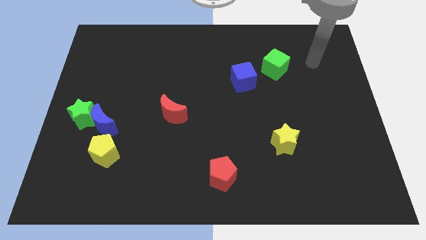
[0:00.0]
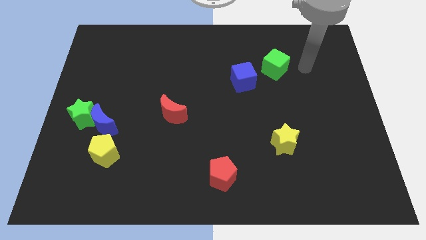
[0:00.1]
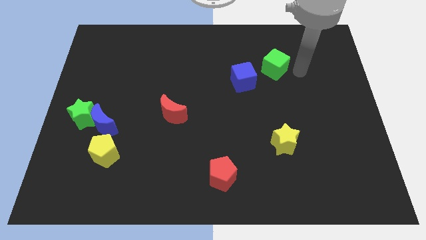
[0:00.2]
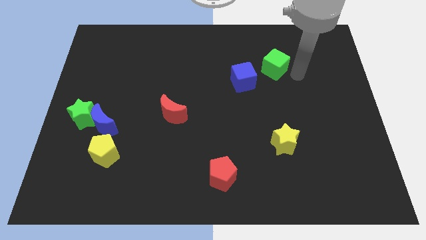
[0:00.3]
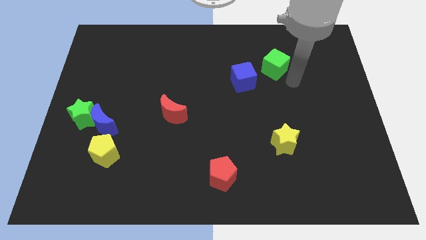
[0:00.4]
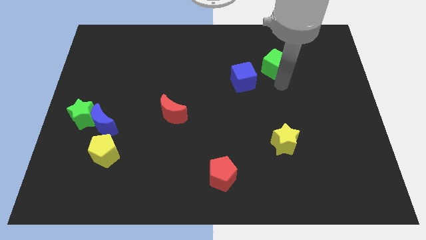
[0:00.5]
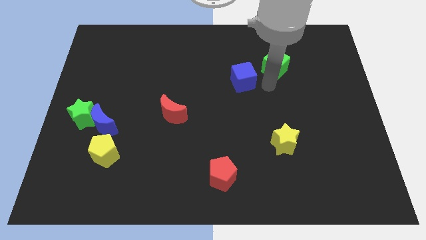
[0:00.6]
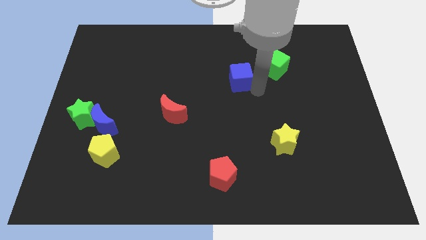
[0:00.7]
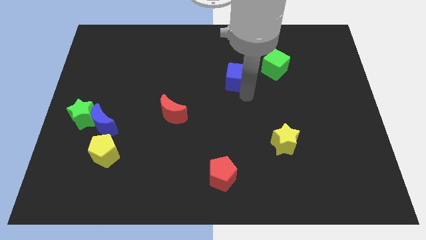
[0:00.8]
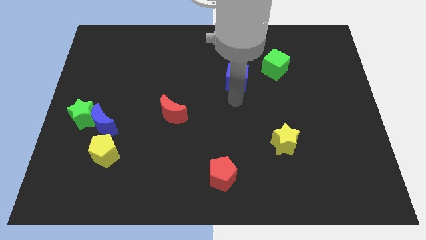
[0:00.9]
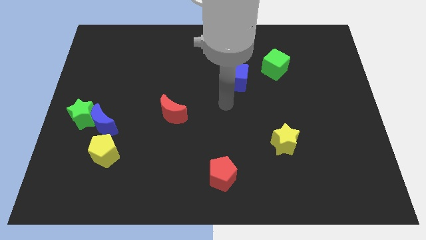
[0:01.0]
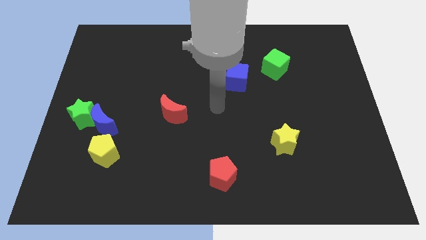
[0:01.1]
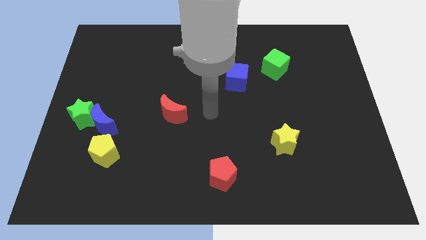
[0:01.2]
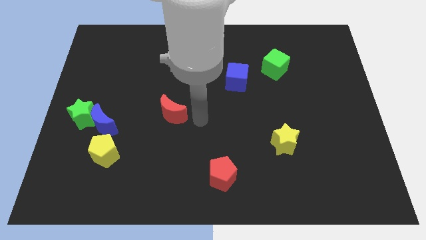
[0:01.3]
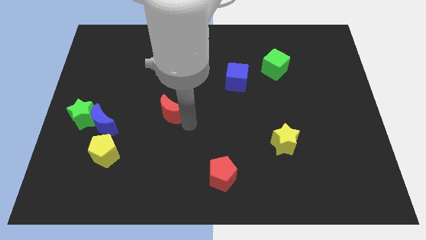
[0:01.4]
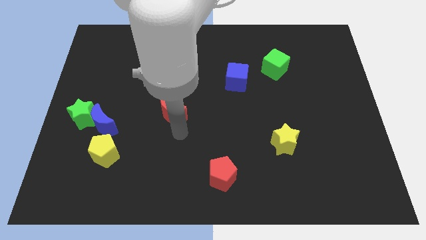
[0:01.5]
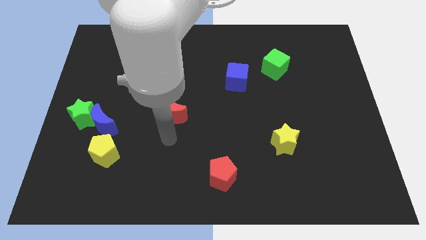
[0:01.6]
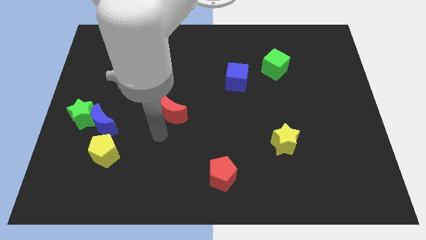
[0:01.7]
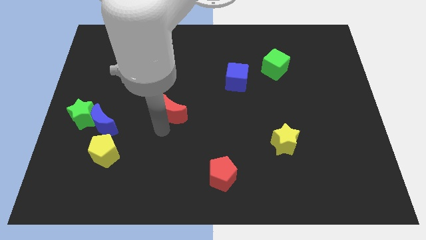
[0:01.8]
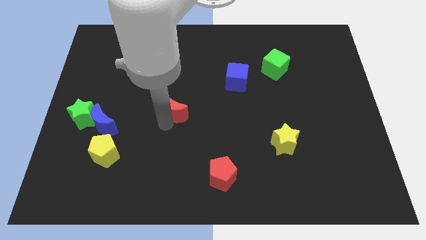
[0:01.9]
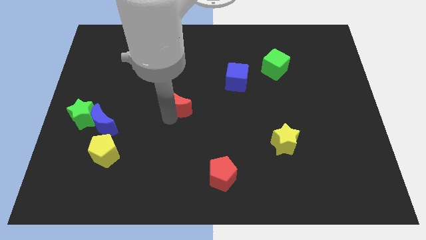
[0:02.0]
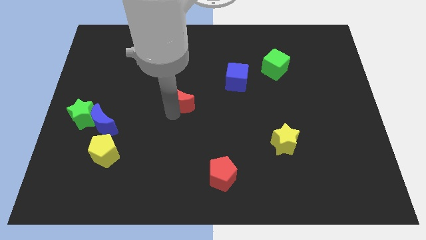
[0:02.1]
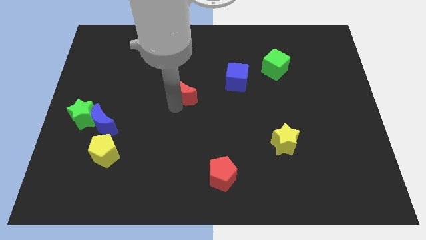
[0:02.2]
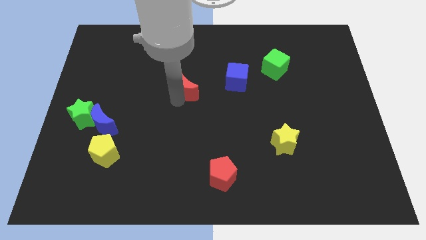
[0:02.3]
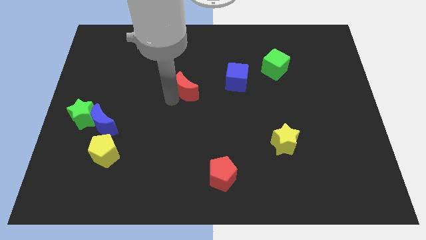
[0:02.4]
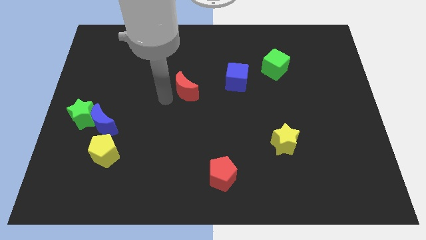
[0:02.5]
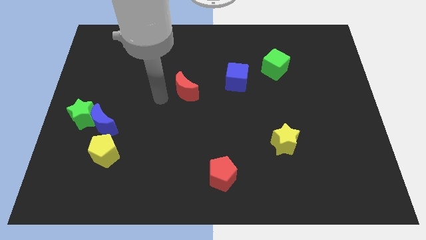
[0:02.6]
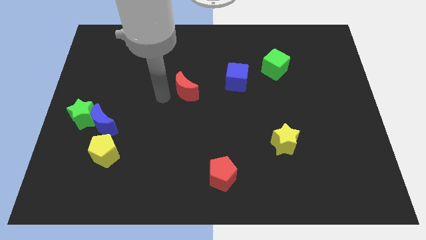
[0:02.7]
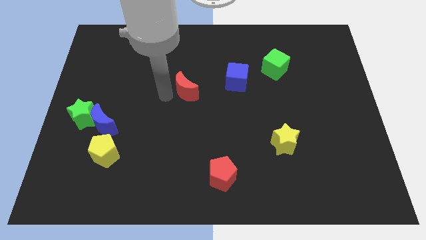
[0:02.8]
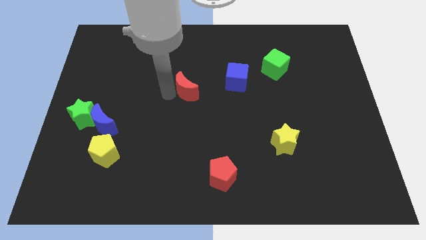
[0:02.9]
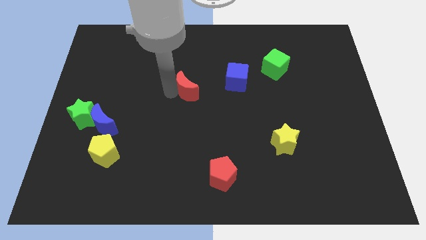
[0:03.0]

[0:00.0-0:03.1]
slightly slide the red moon up and then to the right

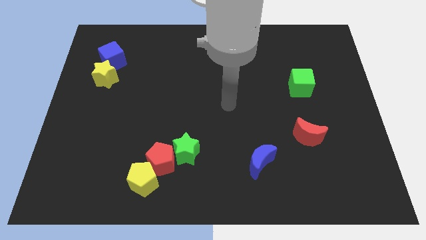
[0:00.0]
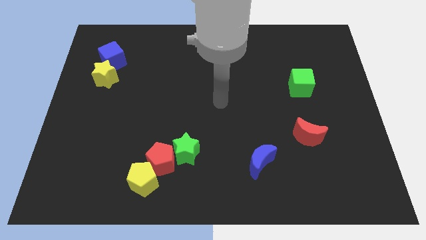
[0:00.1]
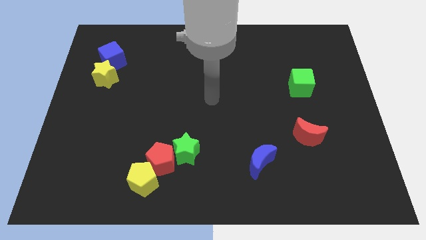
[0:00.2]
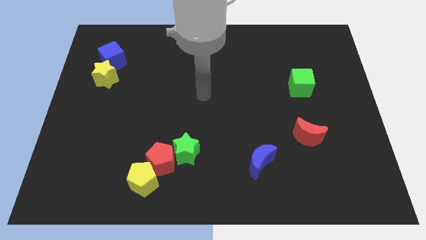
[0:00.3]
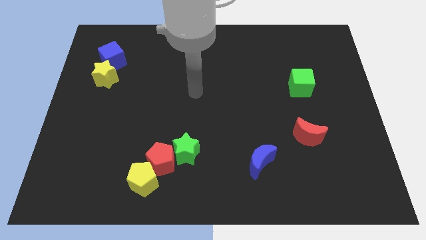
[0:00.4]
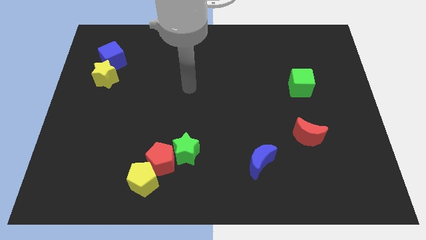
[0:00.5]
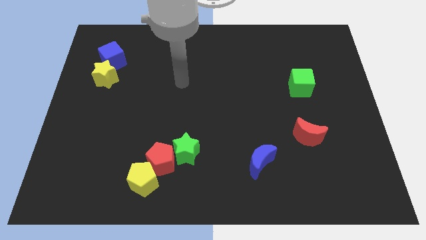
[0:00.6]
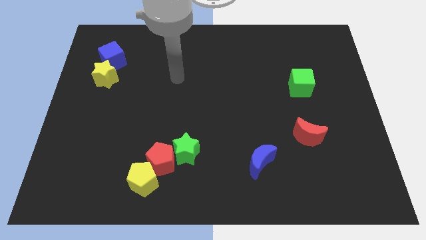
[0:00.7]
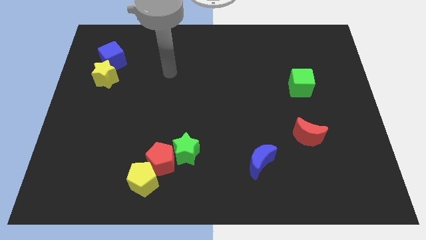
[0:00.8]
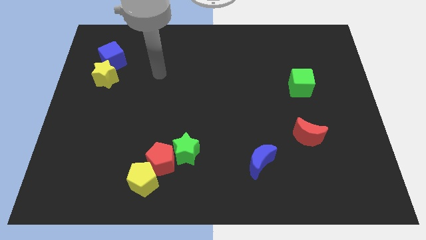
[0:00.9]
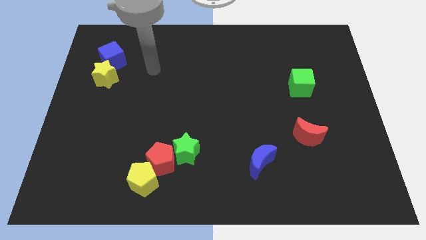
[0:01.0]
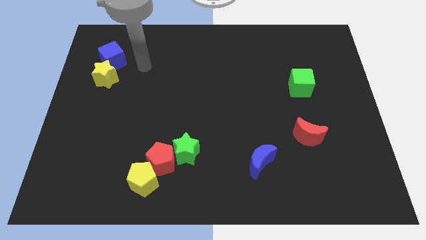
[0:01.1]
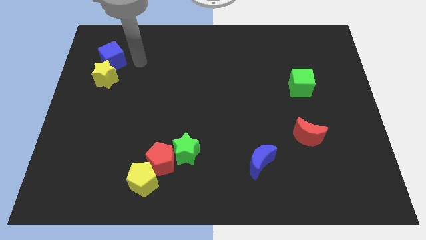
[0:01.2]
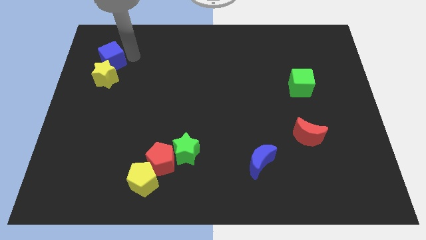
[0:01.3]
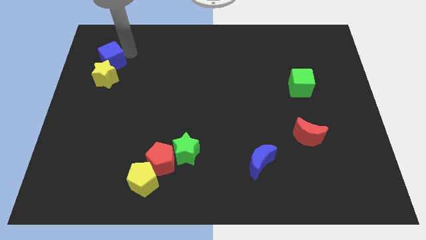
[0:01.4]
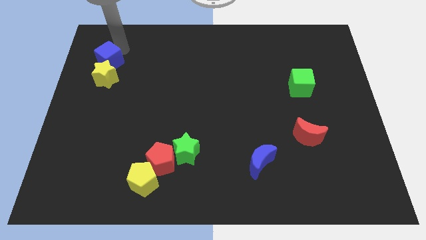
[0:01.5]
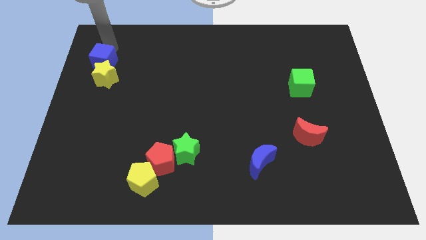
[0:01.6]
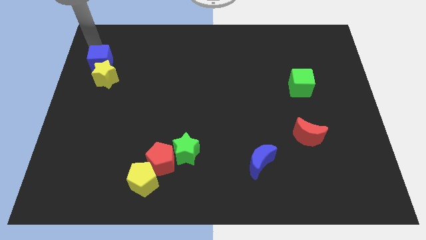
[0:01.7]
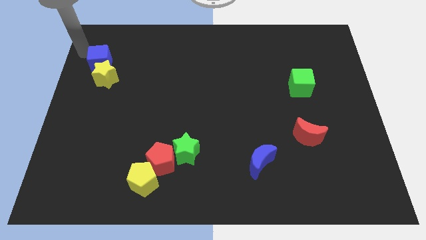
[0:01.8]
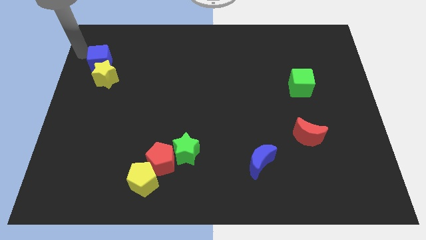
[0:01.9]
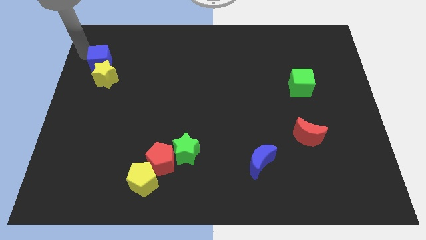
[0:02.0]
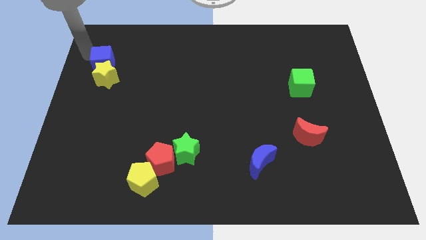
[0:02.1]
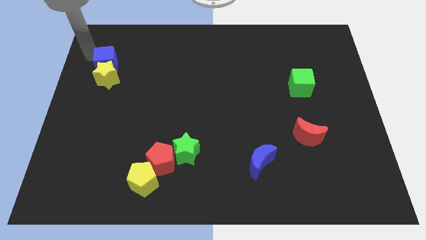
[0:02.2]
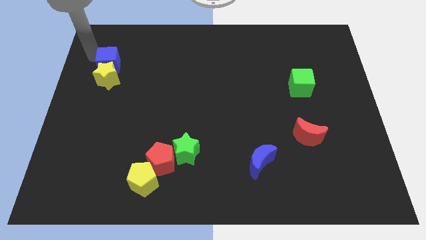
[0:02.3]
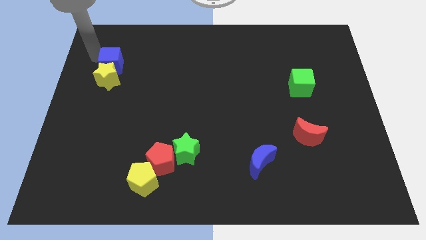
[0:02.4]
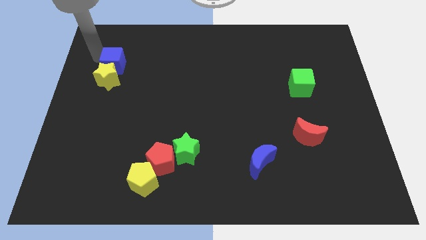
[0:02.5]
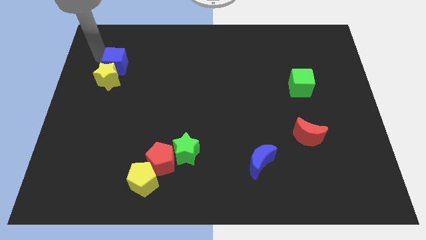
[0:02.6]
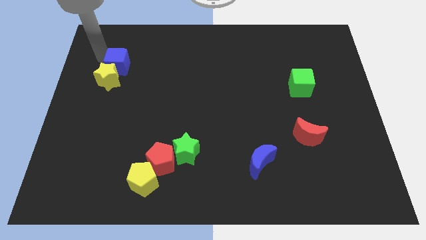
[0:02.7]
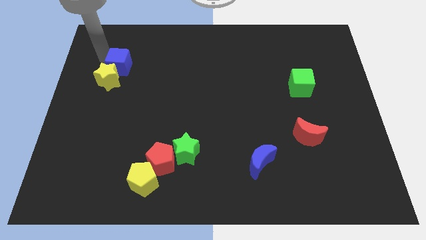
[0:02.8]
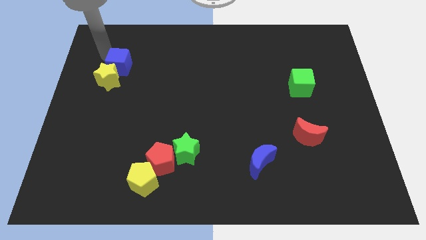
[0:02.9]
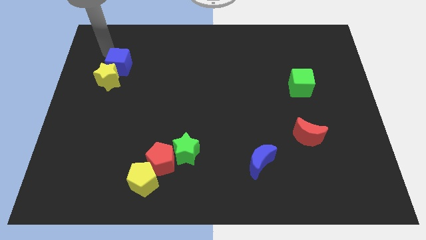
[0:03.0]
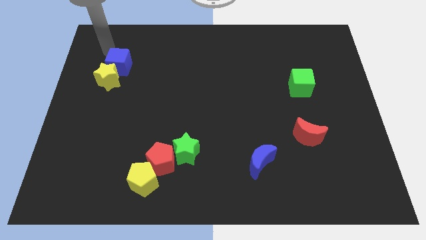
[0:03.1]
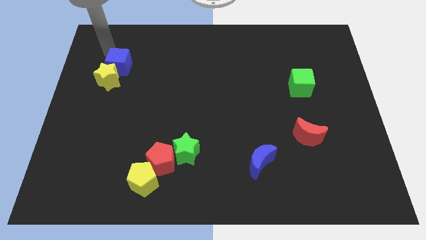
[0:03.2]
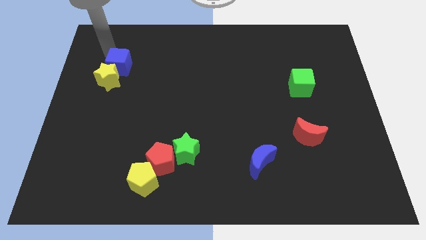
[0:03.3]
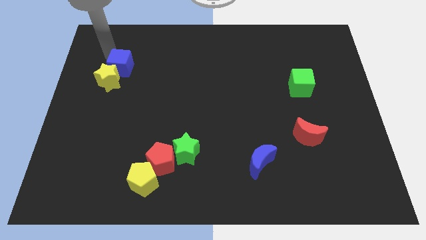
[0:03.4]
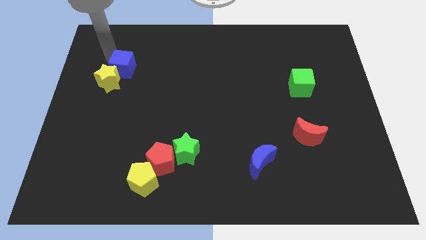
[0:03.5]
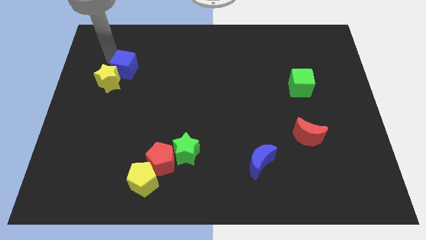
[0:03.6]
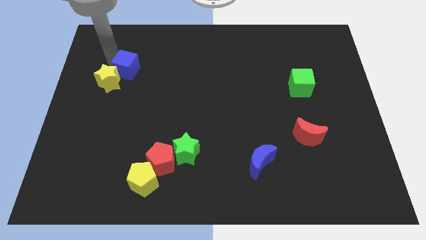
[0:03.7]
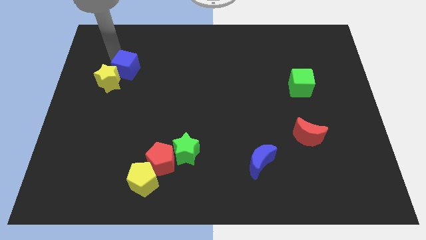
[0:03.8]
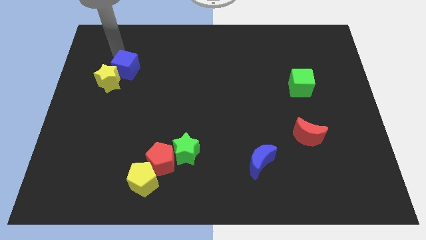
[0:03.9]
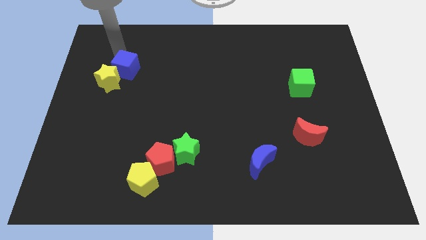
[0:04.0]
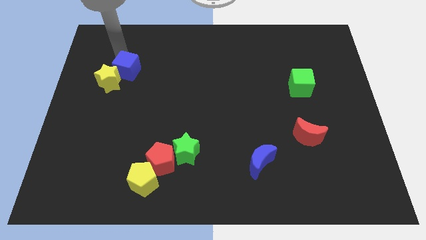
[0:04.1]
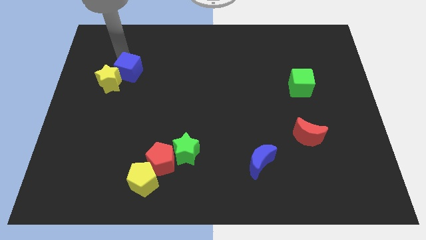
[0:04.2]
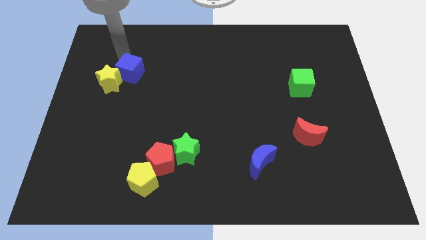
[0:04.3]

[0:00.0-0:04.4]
move the blue cube diagonally downwards and to the right a little
